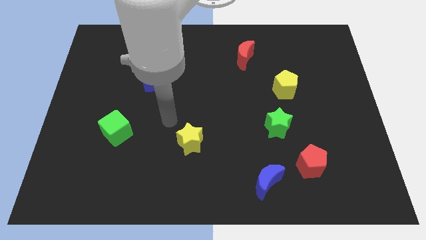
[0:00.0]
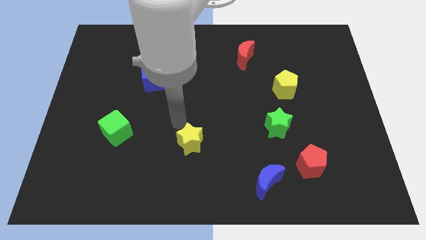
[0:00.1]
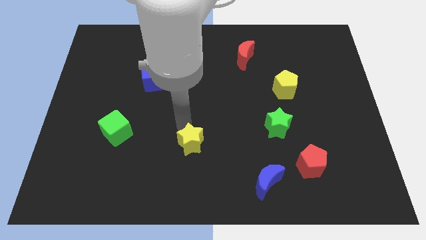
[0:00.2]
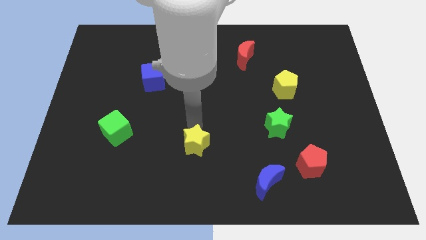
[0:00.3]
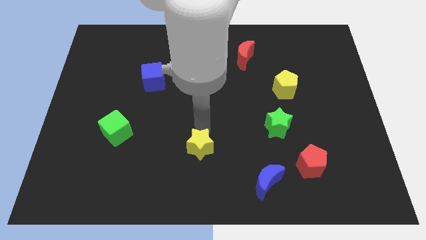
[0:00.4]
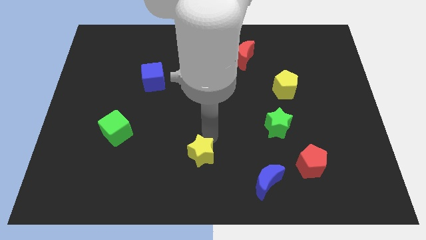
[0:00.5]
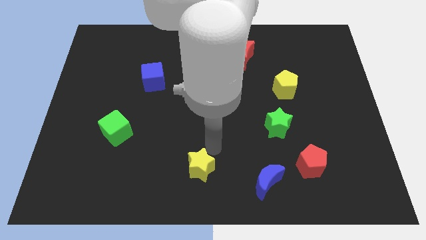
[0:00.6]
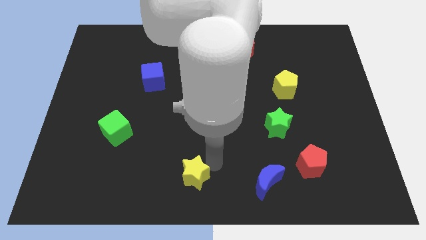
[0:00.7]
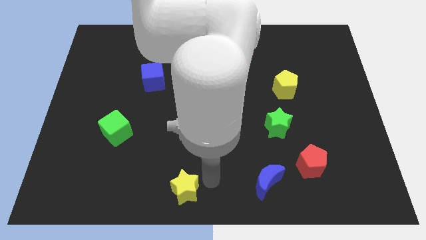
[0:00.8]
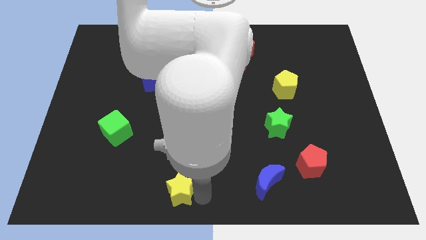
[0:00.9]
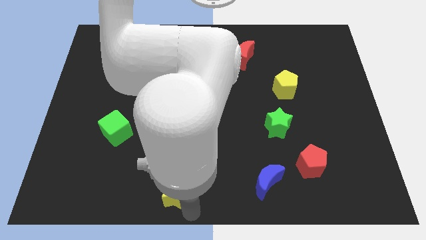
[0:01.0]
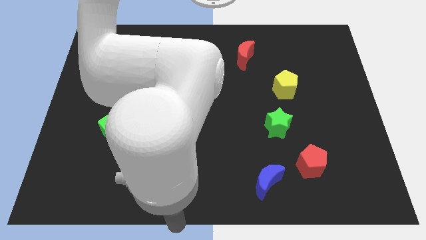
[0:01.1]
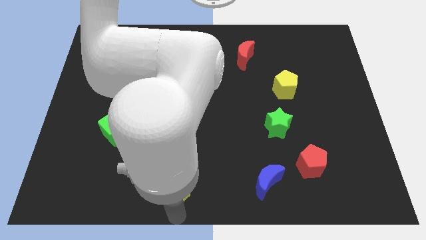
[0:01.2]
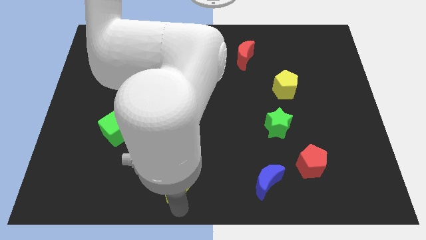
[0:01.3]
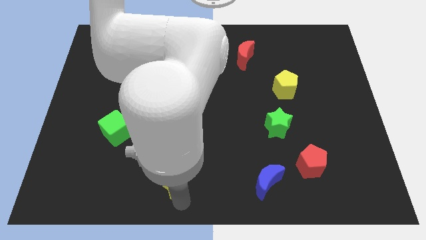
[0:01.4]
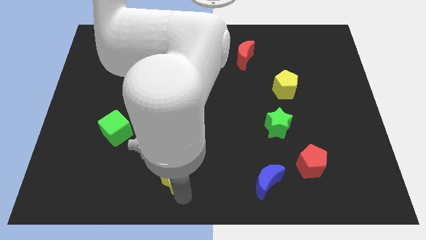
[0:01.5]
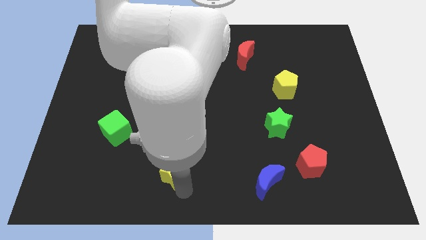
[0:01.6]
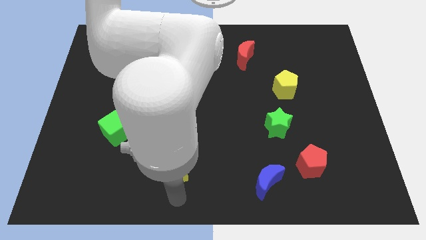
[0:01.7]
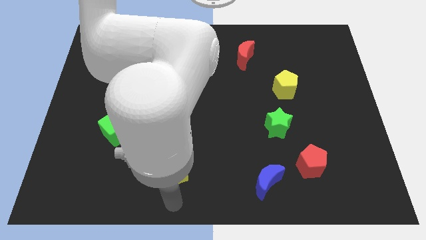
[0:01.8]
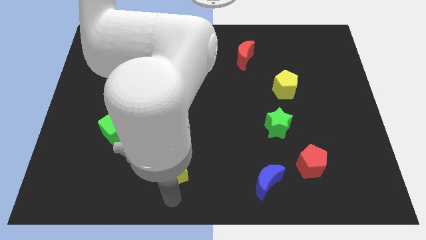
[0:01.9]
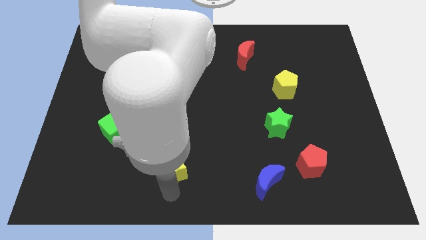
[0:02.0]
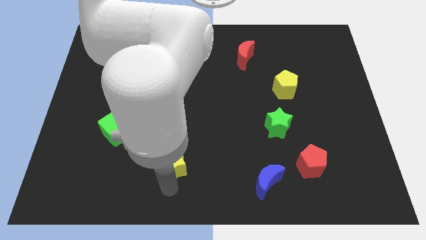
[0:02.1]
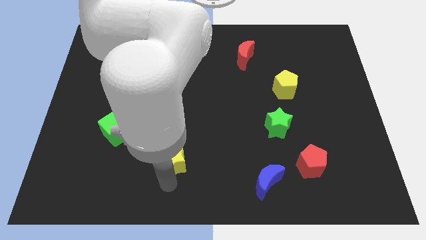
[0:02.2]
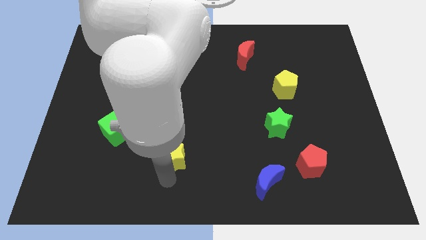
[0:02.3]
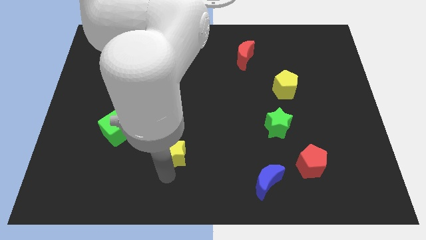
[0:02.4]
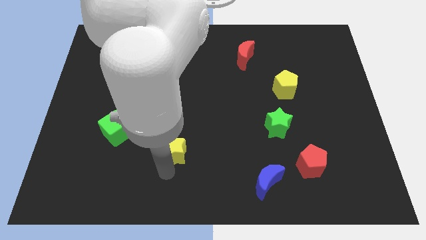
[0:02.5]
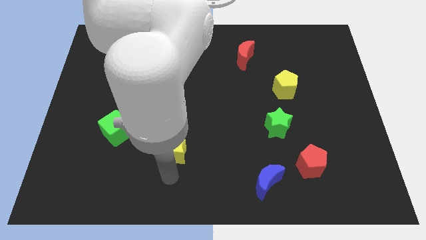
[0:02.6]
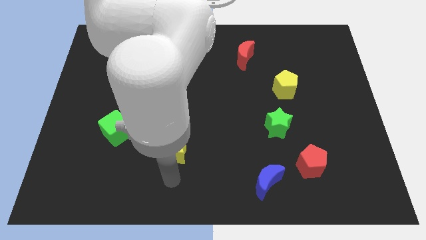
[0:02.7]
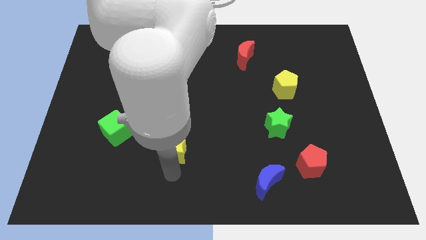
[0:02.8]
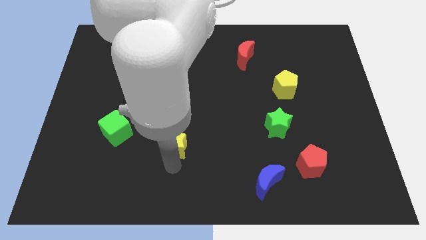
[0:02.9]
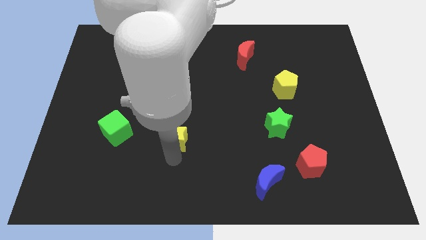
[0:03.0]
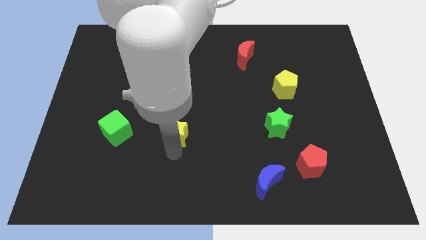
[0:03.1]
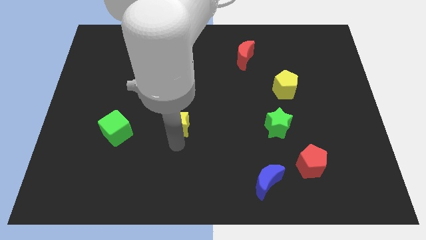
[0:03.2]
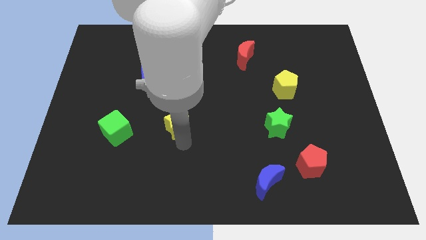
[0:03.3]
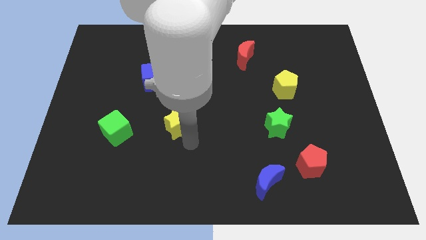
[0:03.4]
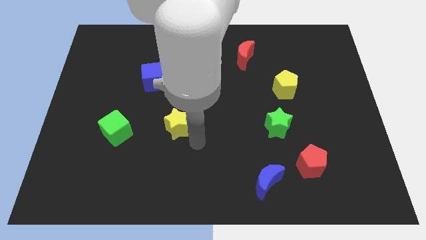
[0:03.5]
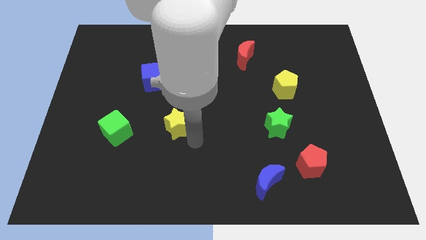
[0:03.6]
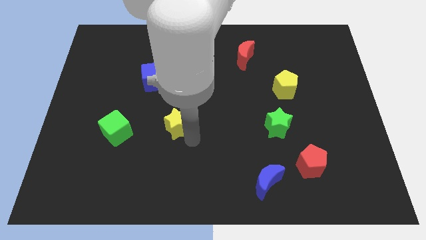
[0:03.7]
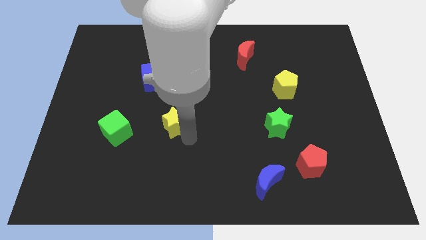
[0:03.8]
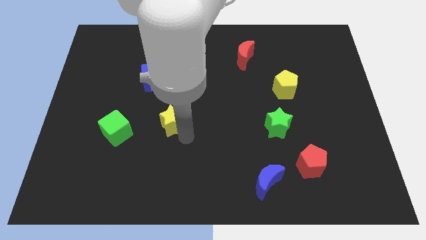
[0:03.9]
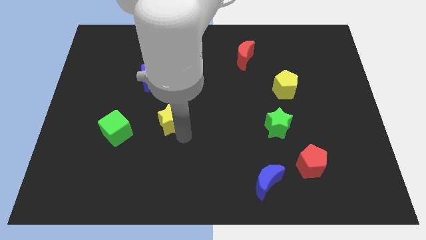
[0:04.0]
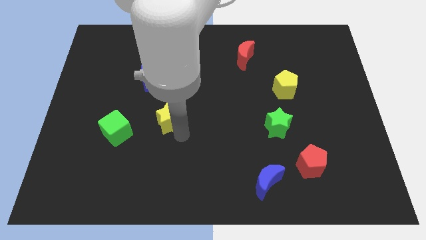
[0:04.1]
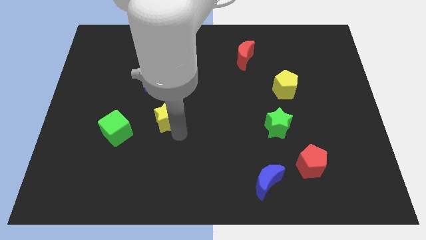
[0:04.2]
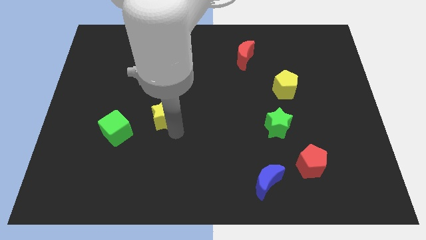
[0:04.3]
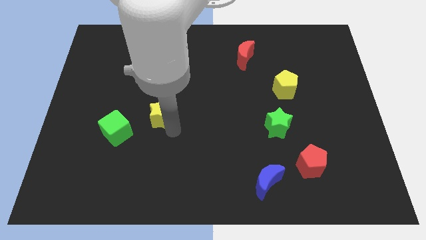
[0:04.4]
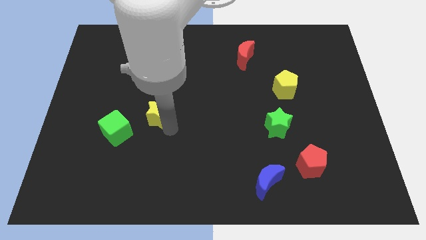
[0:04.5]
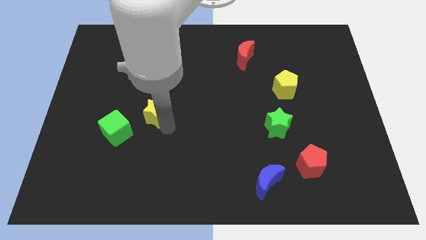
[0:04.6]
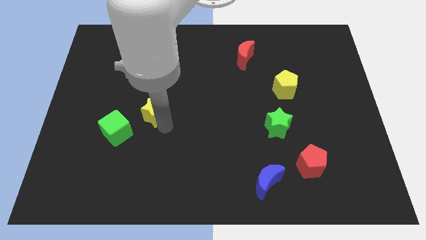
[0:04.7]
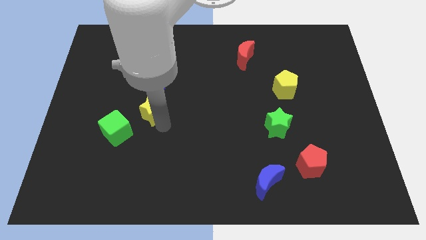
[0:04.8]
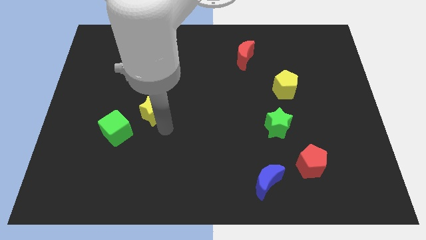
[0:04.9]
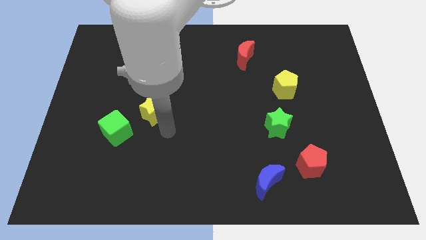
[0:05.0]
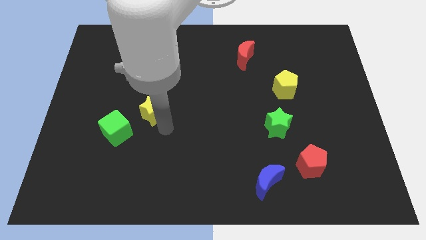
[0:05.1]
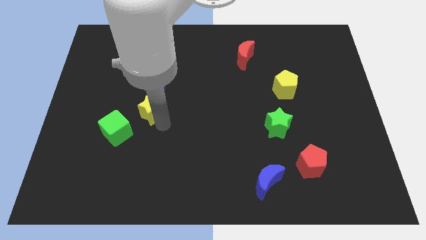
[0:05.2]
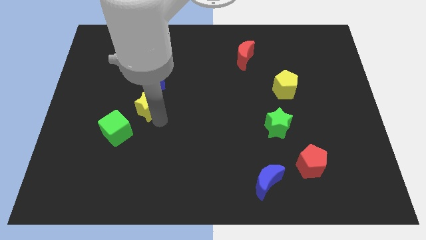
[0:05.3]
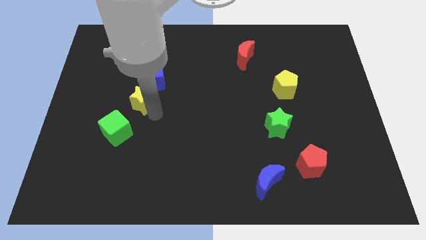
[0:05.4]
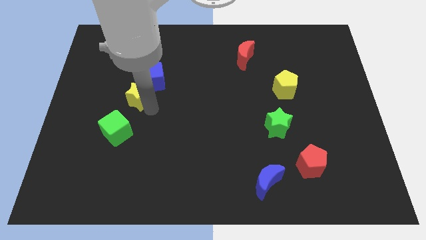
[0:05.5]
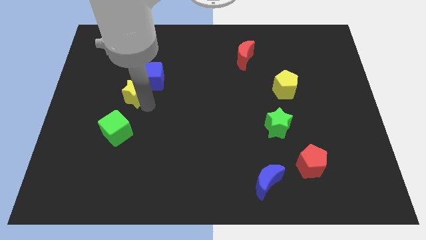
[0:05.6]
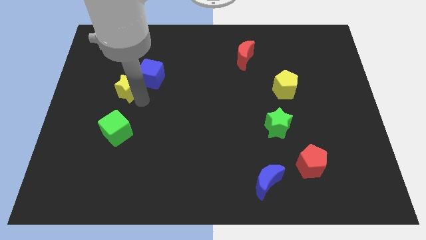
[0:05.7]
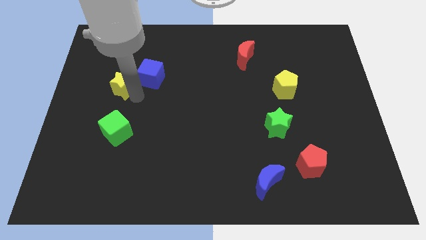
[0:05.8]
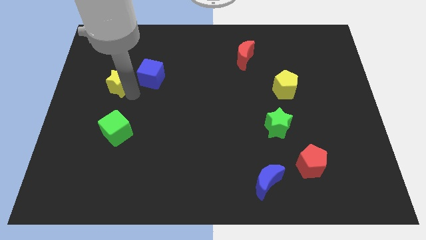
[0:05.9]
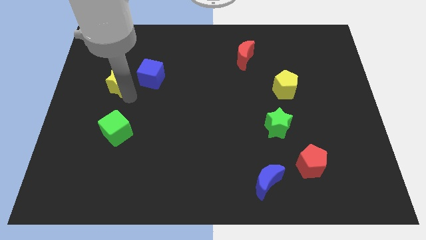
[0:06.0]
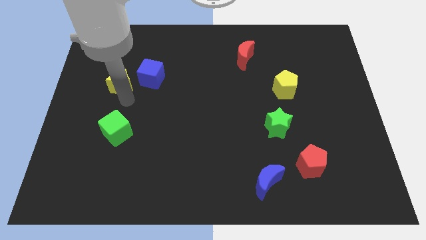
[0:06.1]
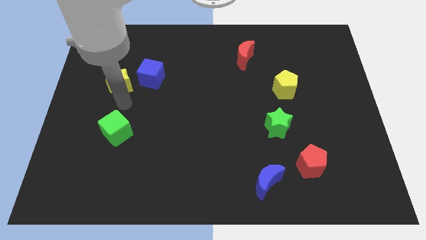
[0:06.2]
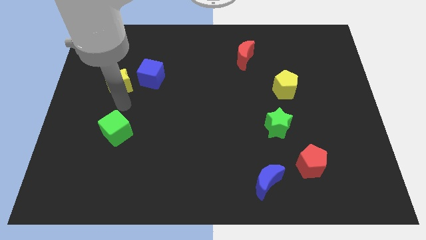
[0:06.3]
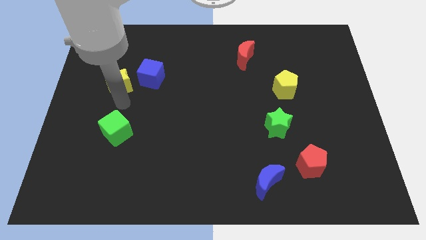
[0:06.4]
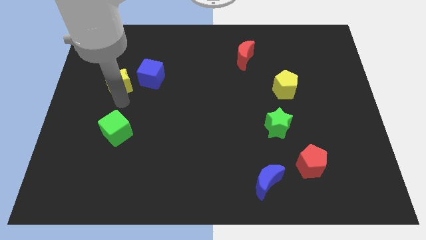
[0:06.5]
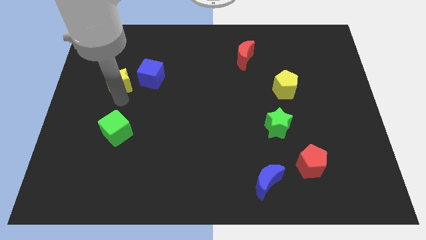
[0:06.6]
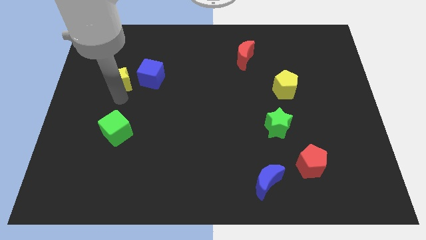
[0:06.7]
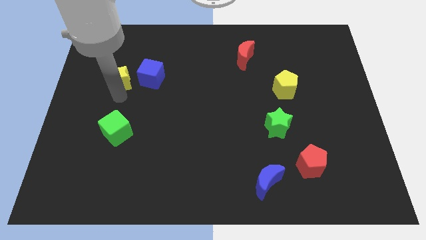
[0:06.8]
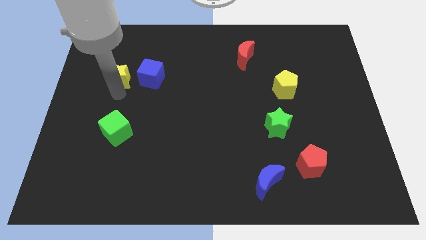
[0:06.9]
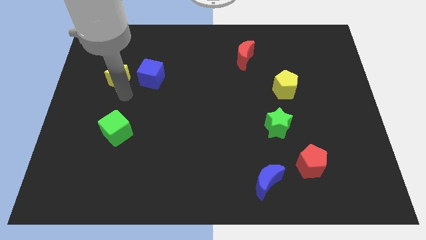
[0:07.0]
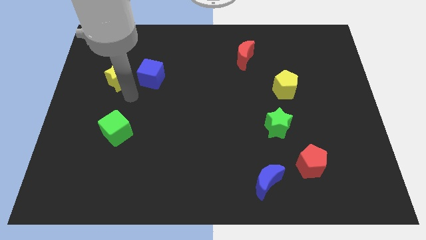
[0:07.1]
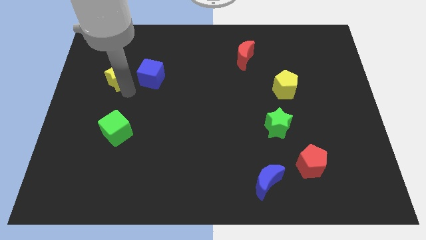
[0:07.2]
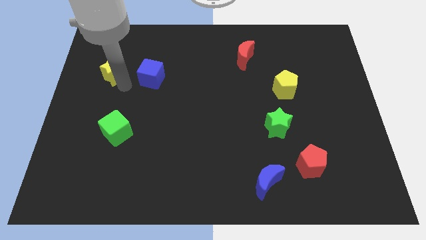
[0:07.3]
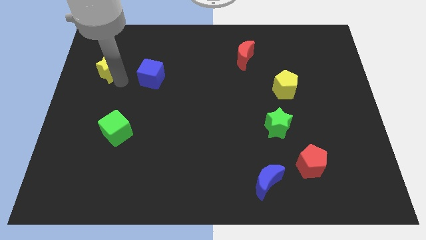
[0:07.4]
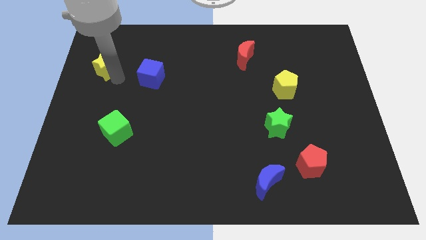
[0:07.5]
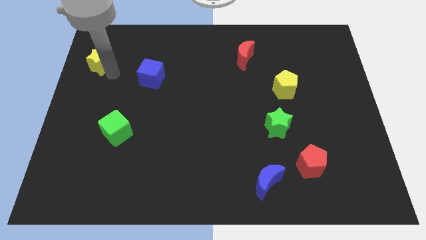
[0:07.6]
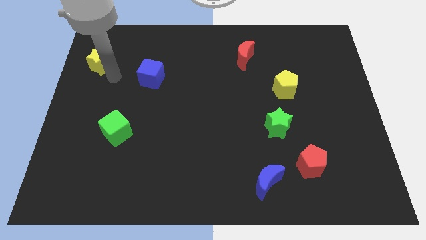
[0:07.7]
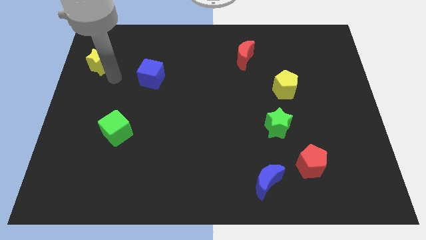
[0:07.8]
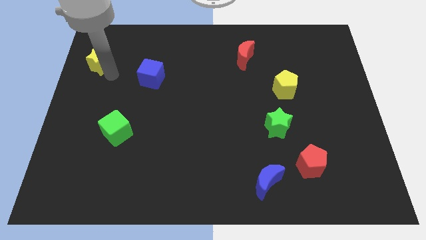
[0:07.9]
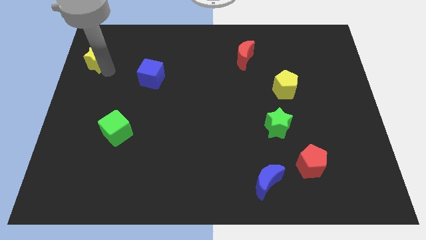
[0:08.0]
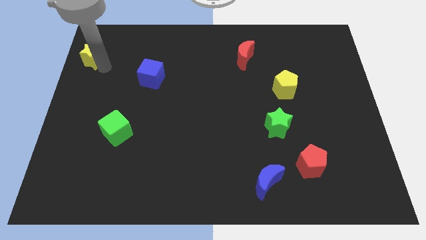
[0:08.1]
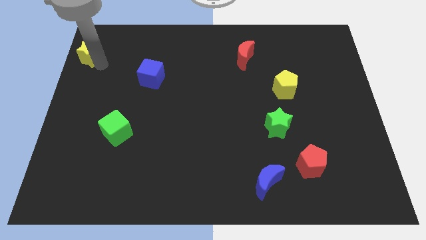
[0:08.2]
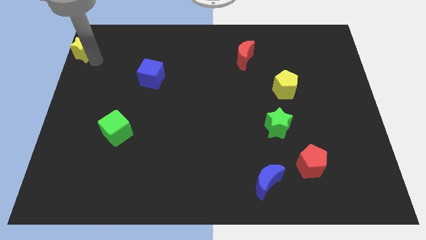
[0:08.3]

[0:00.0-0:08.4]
move the yellow star to the top left
